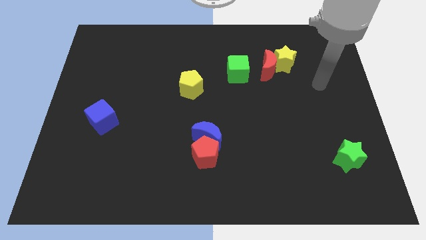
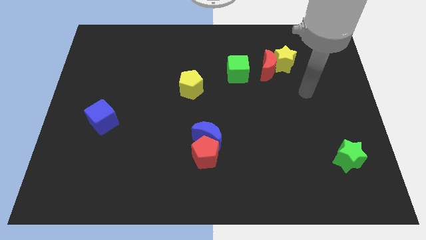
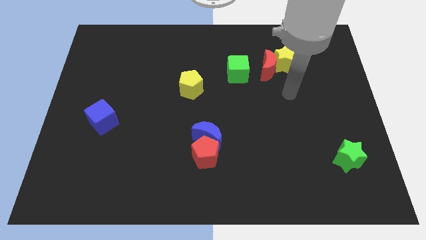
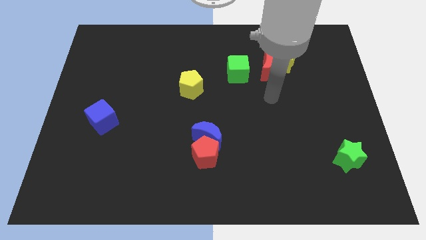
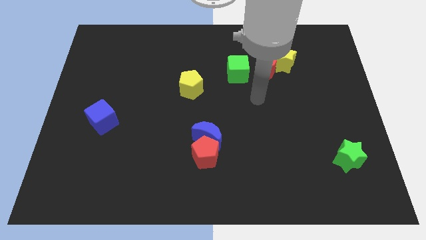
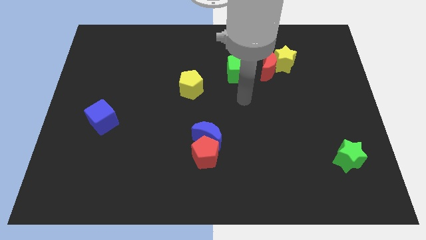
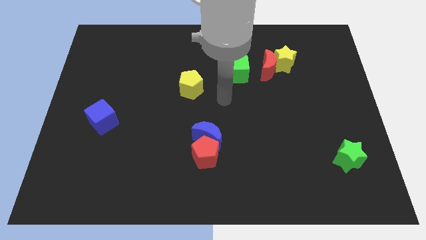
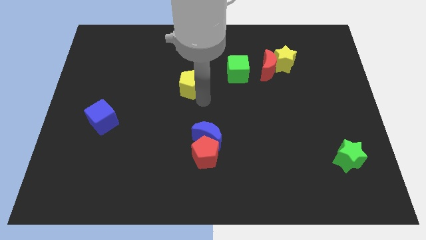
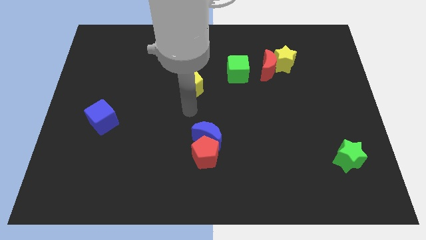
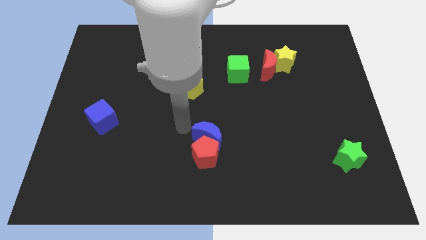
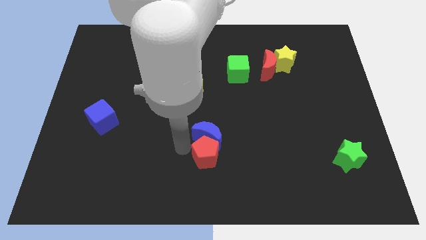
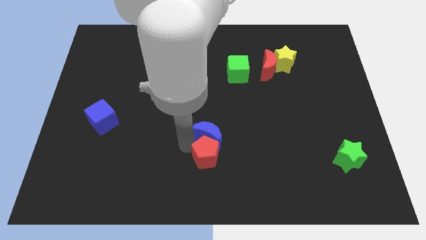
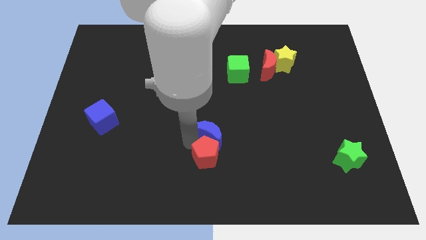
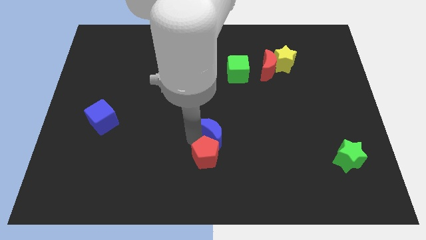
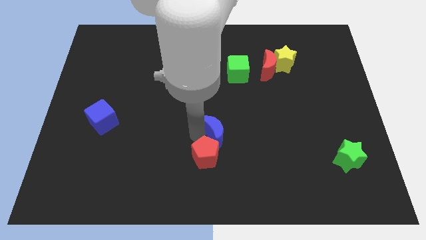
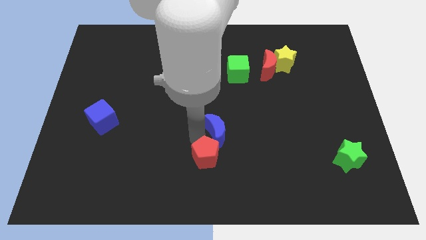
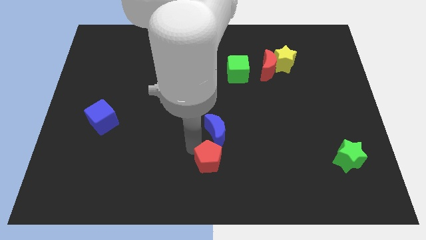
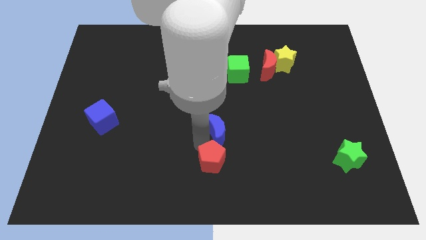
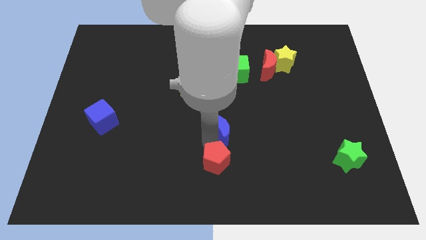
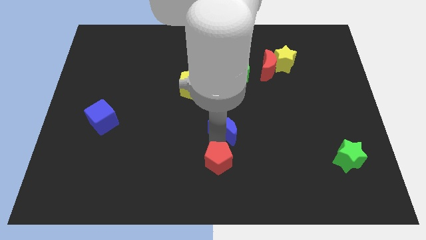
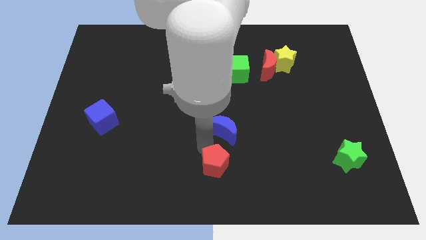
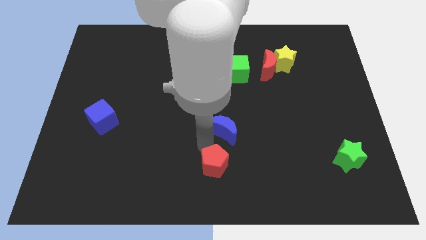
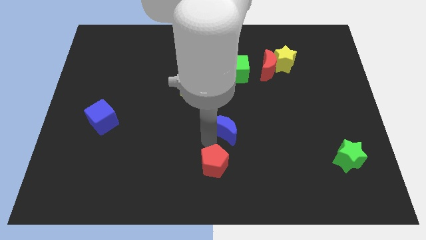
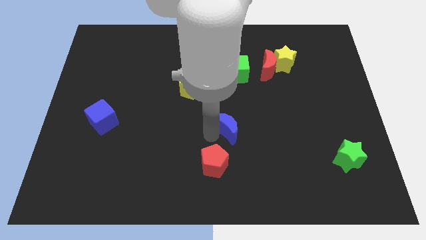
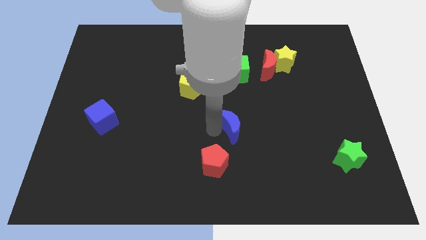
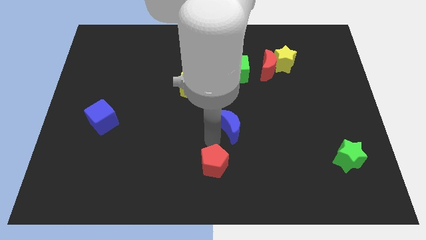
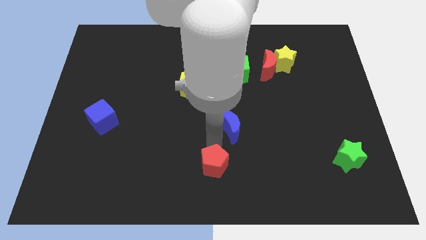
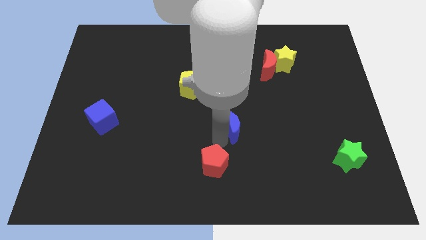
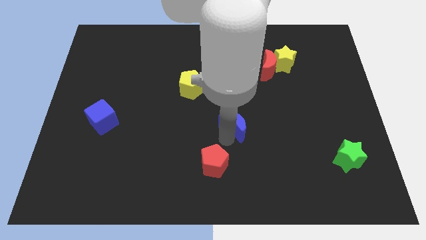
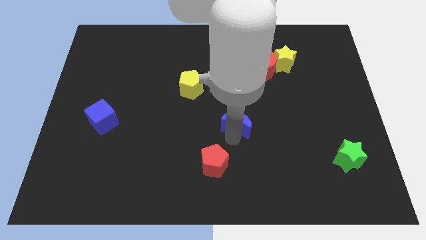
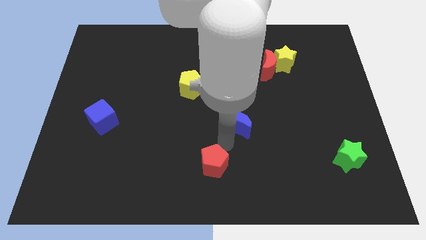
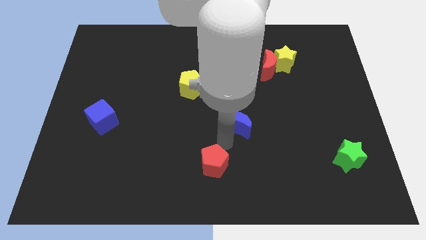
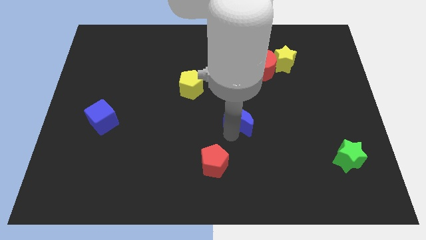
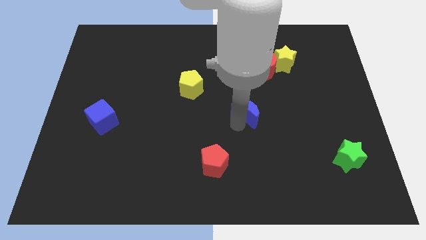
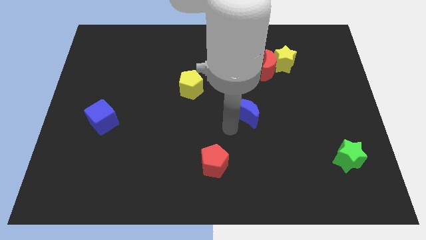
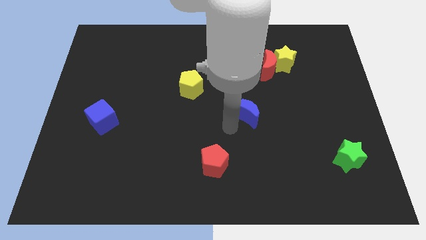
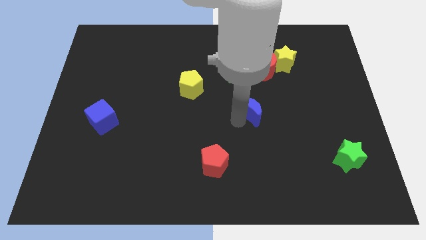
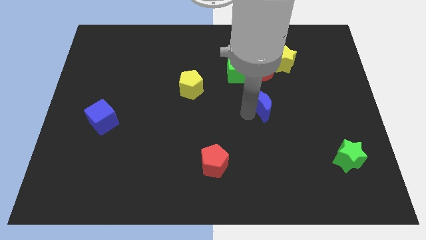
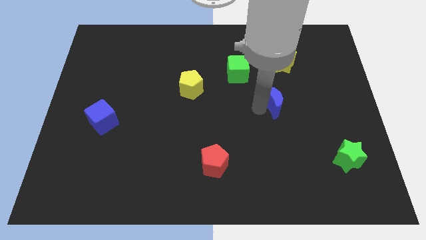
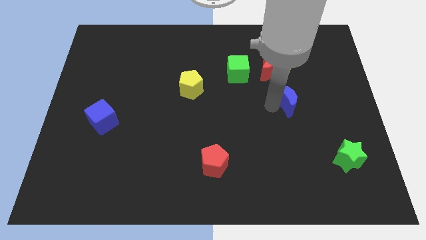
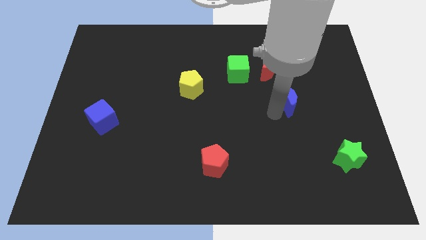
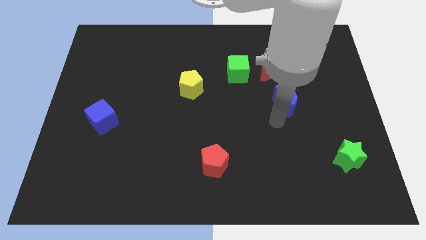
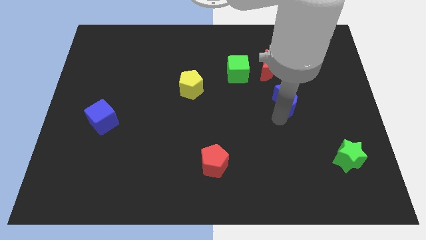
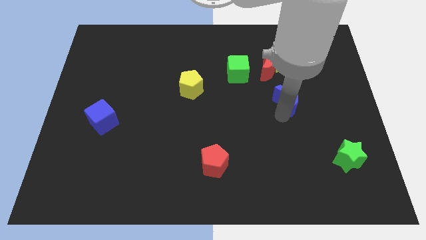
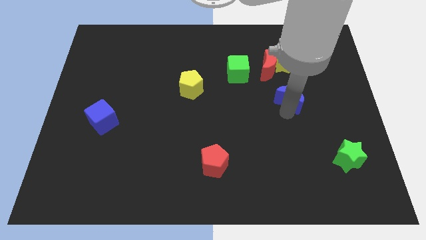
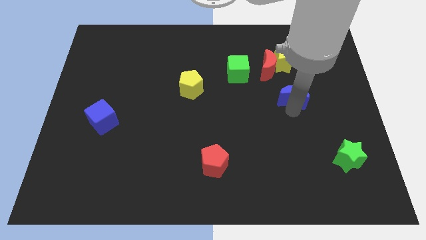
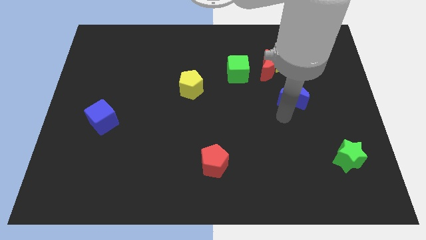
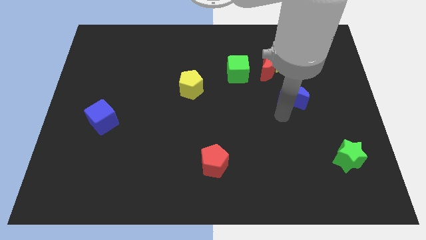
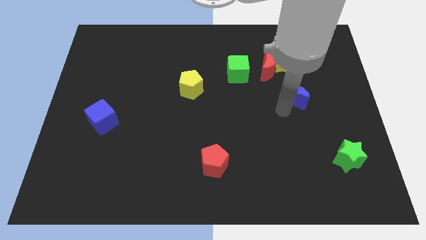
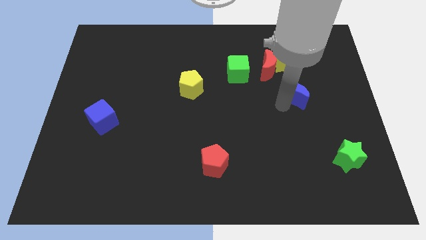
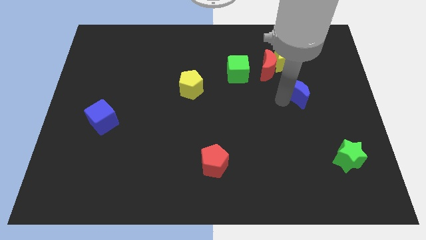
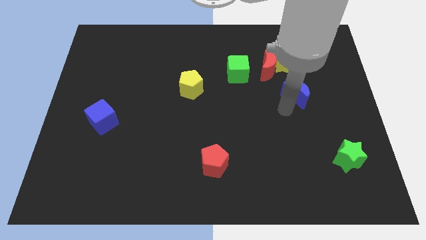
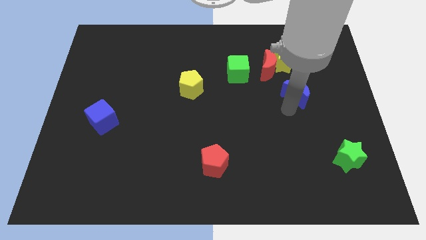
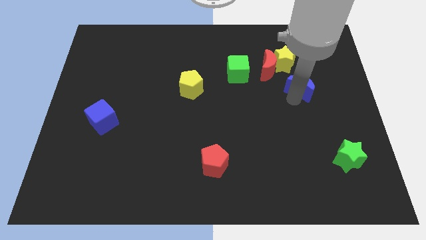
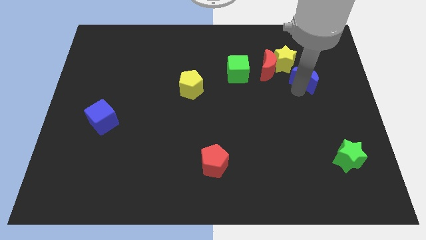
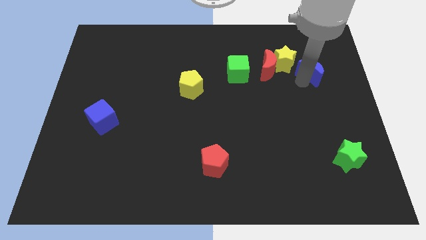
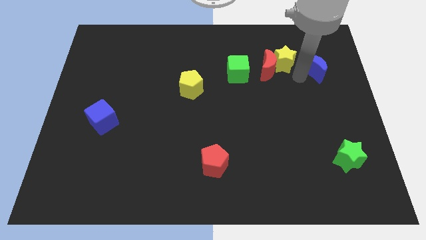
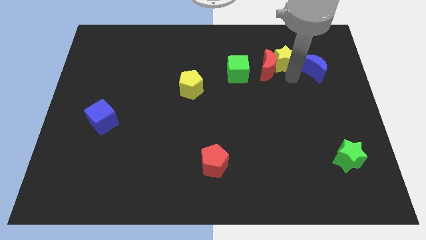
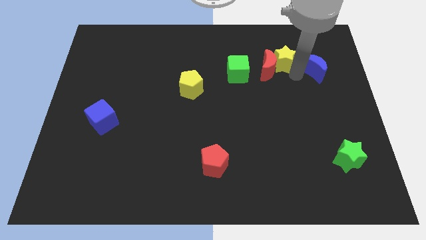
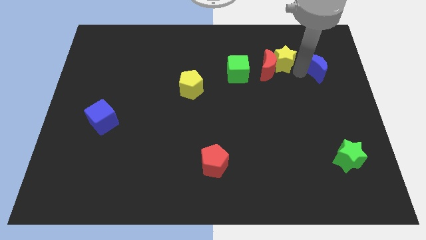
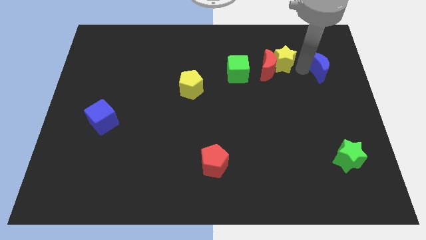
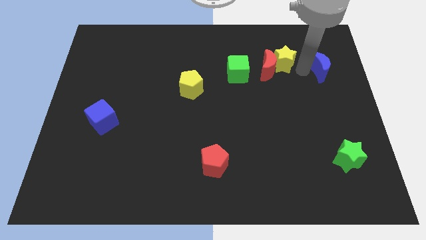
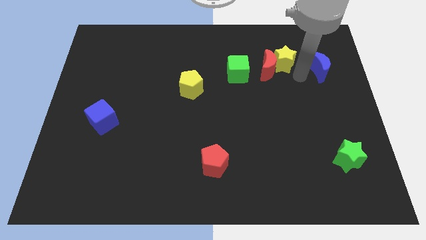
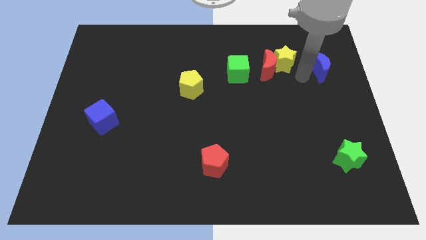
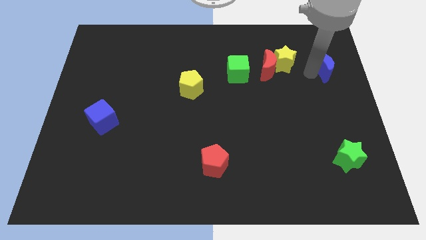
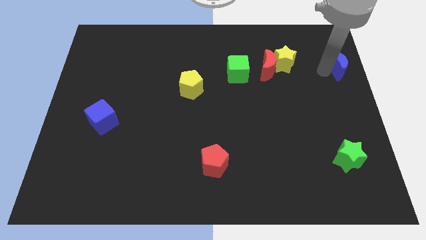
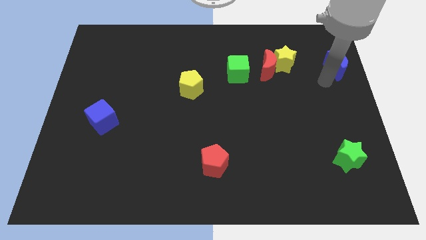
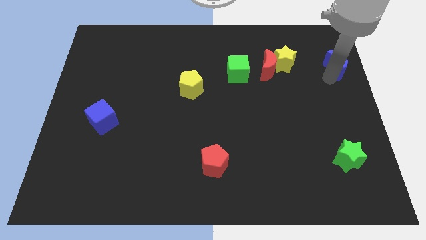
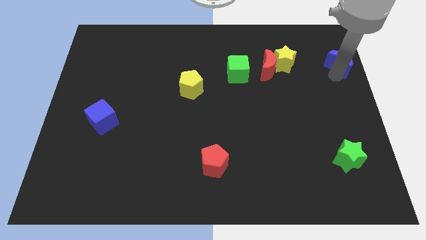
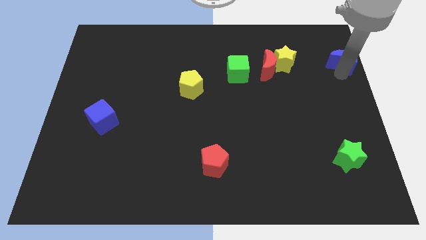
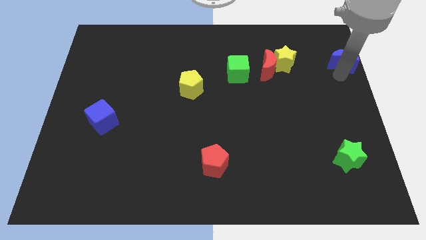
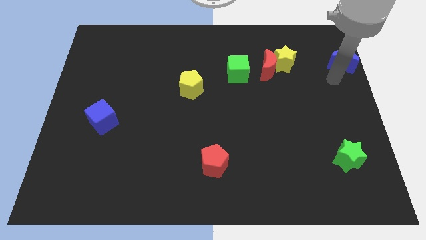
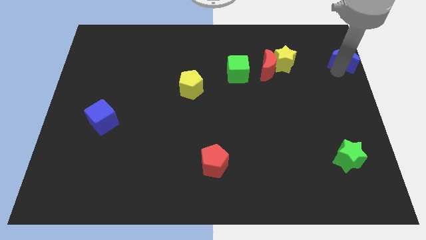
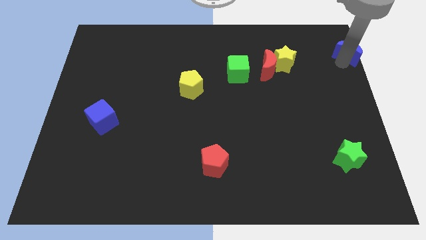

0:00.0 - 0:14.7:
move the blue moon to the top right corner
